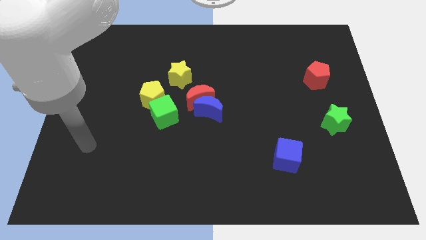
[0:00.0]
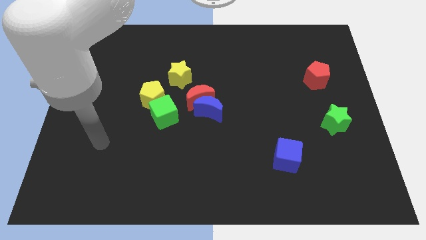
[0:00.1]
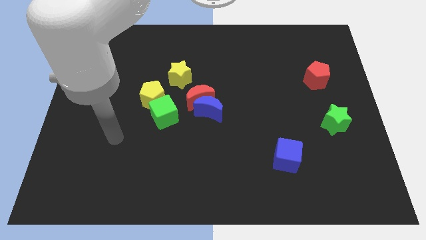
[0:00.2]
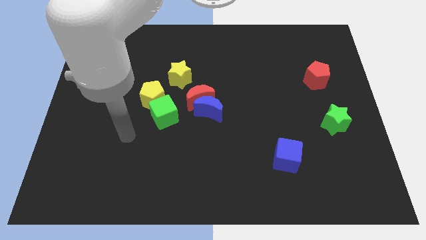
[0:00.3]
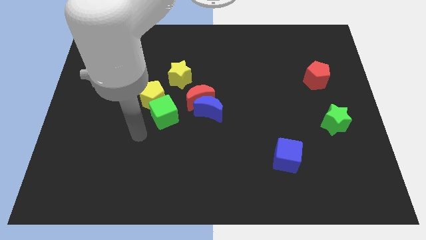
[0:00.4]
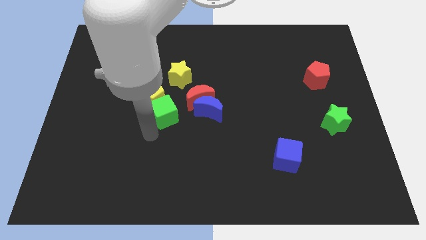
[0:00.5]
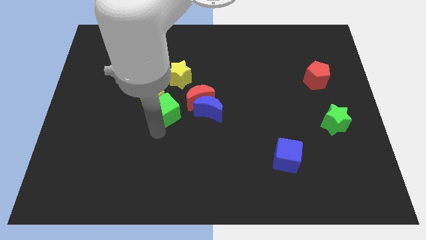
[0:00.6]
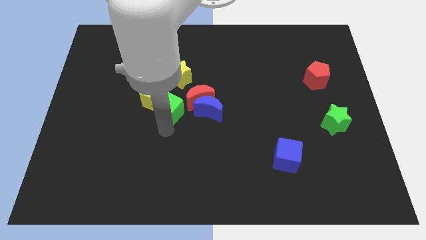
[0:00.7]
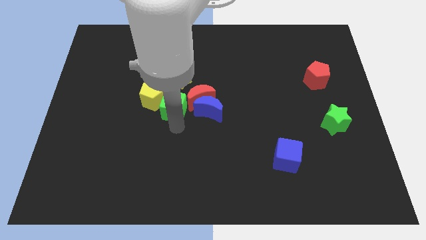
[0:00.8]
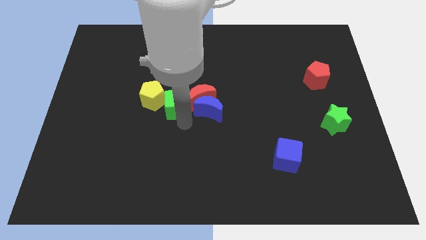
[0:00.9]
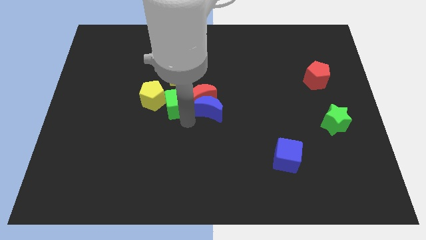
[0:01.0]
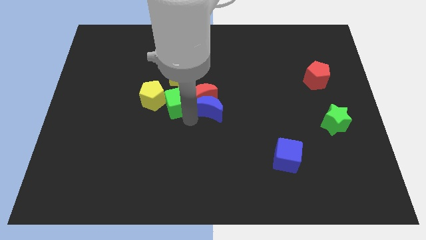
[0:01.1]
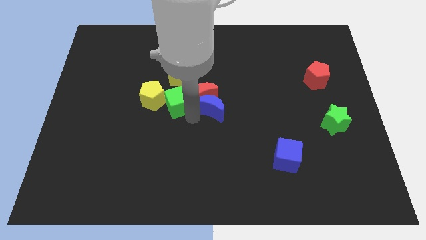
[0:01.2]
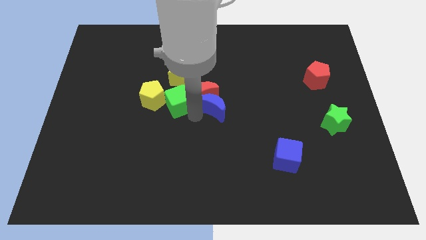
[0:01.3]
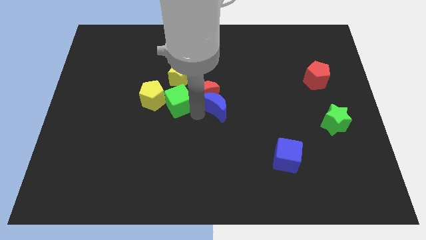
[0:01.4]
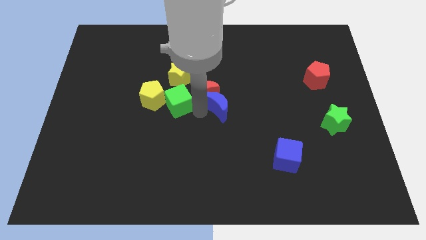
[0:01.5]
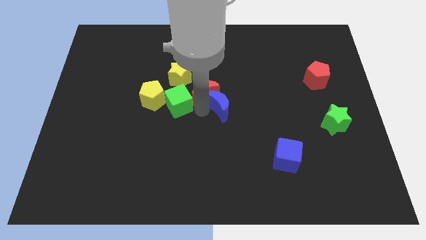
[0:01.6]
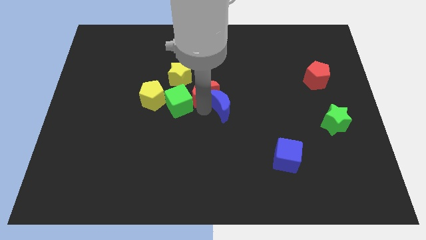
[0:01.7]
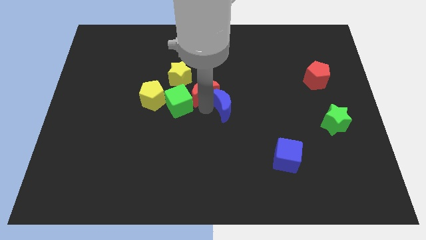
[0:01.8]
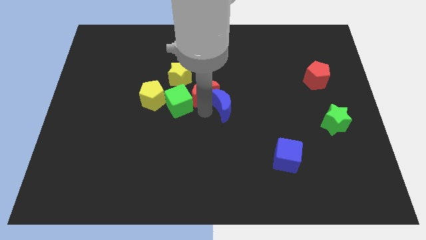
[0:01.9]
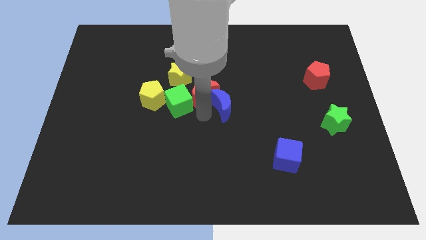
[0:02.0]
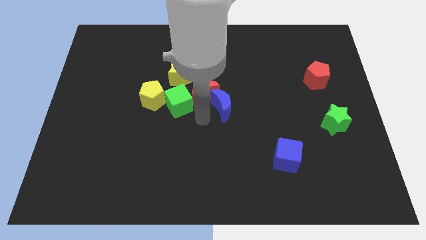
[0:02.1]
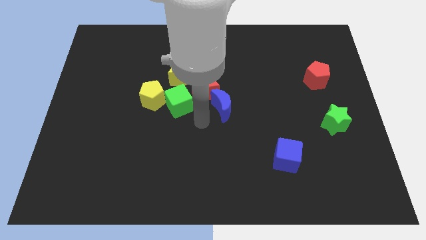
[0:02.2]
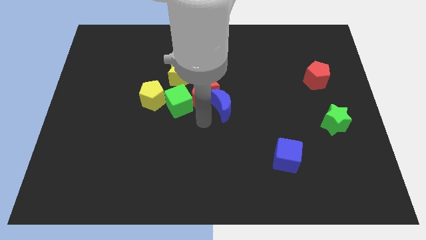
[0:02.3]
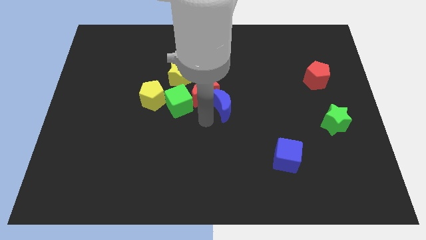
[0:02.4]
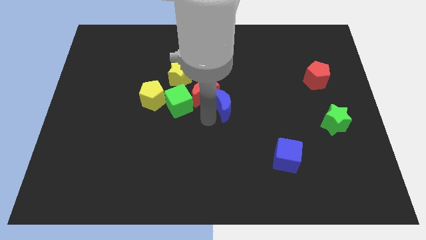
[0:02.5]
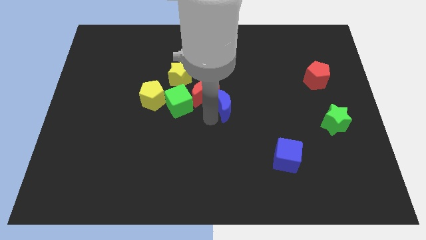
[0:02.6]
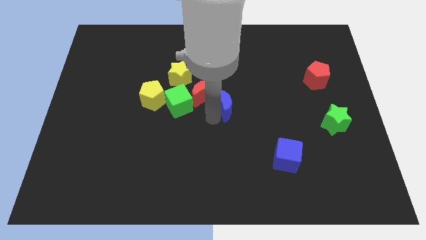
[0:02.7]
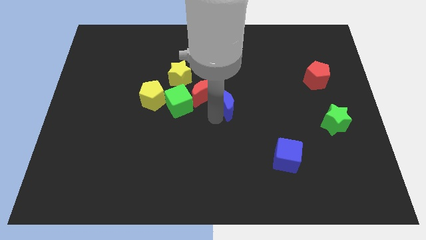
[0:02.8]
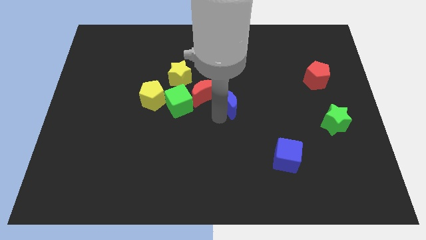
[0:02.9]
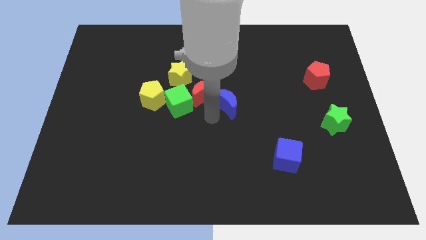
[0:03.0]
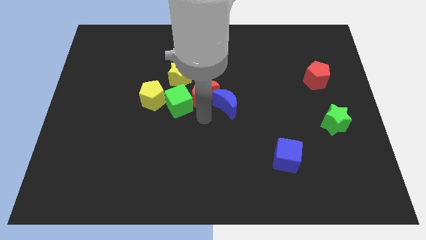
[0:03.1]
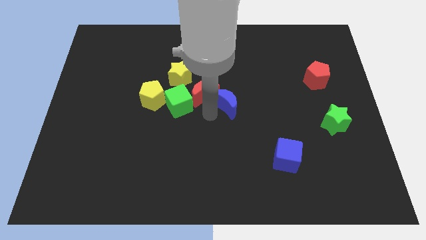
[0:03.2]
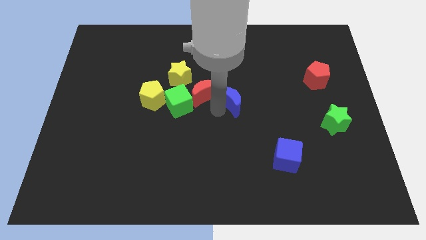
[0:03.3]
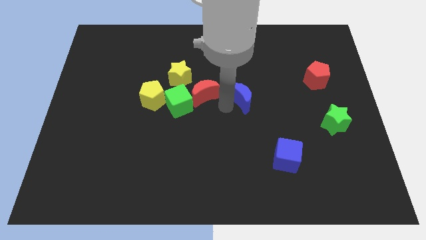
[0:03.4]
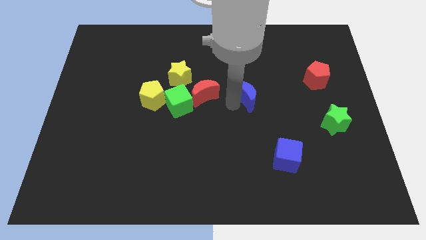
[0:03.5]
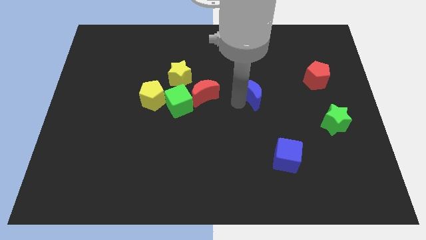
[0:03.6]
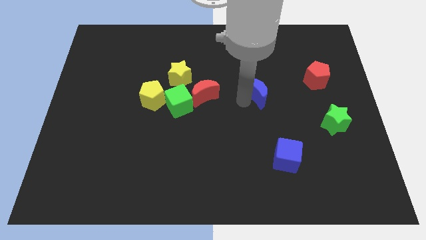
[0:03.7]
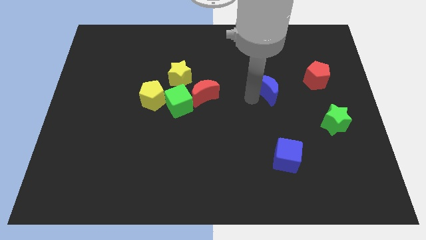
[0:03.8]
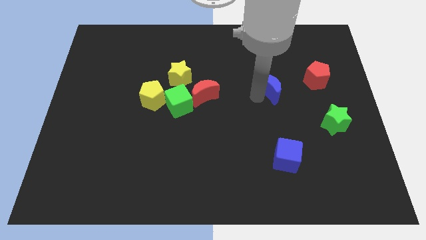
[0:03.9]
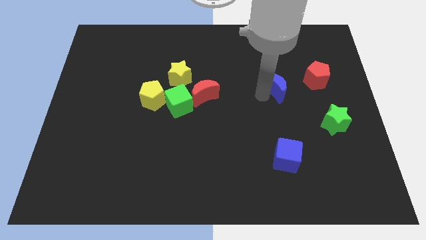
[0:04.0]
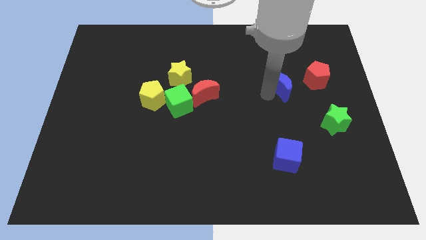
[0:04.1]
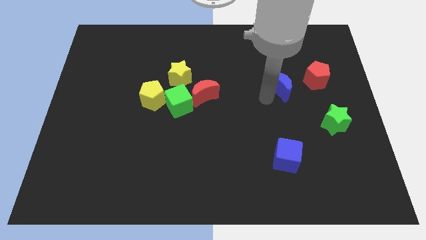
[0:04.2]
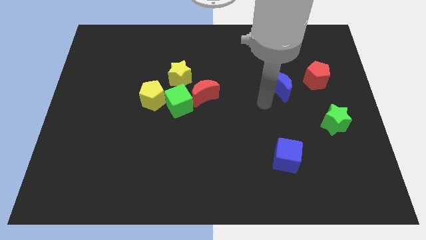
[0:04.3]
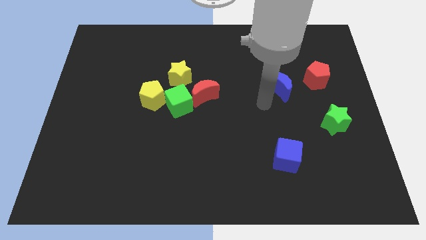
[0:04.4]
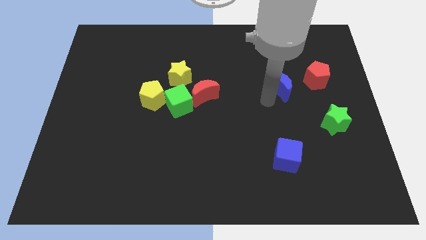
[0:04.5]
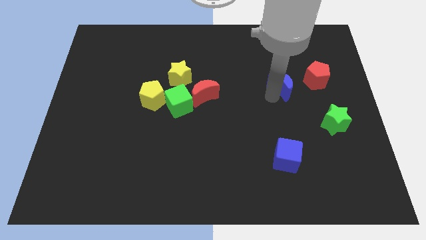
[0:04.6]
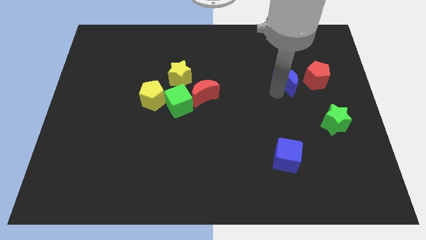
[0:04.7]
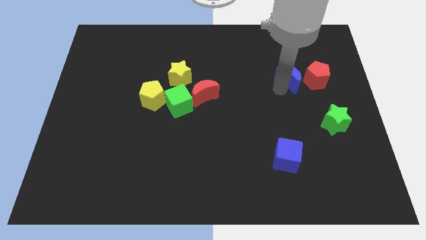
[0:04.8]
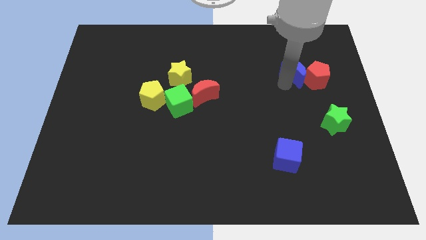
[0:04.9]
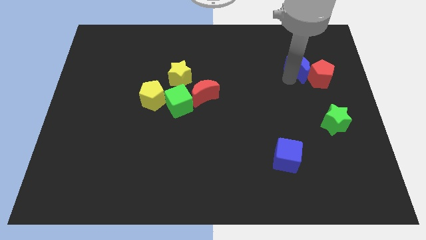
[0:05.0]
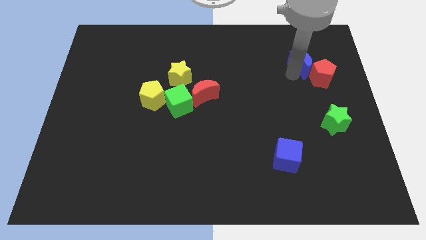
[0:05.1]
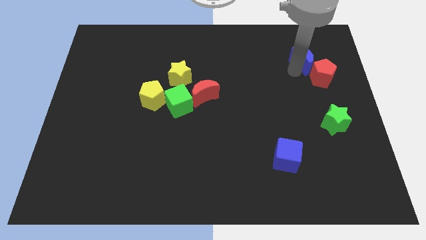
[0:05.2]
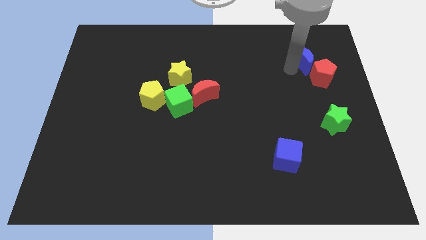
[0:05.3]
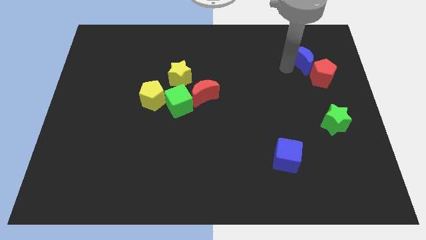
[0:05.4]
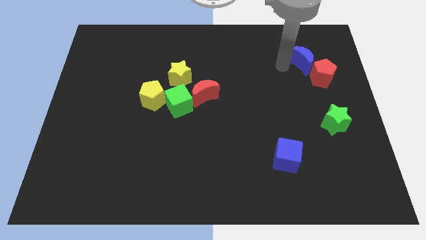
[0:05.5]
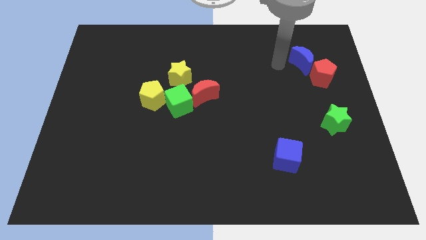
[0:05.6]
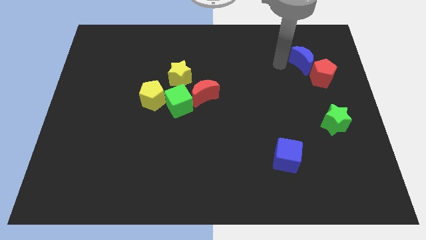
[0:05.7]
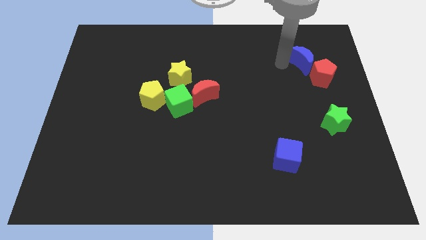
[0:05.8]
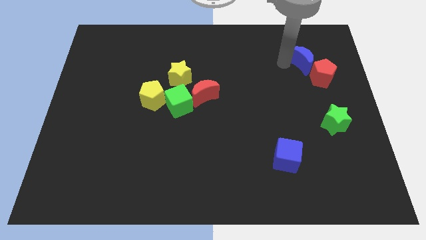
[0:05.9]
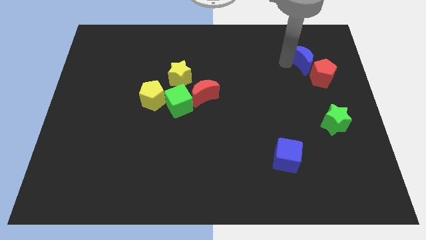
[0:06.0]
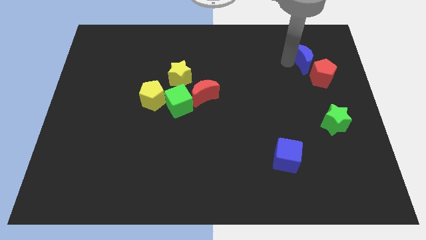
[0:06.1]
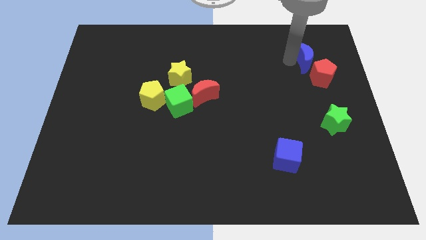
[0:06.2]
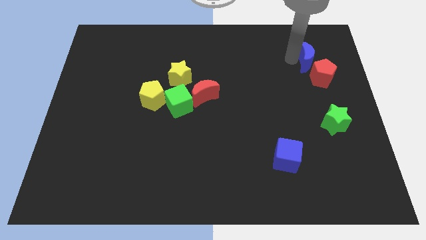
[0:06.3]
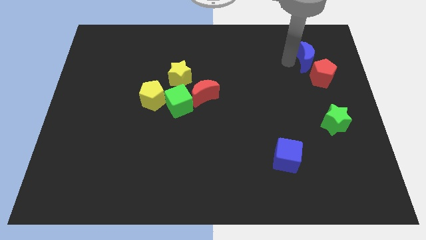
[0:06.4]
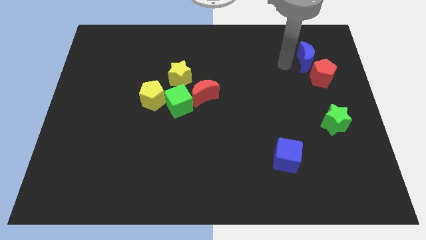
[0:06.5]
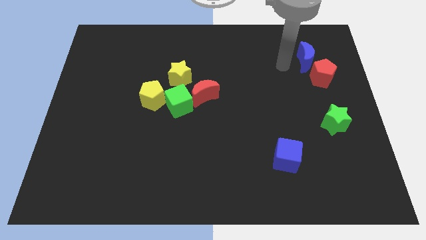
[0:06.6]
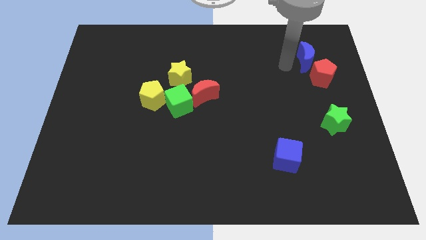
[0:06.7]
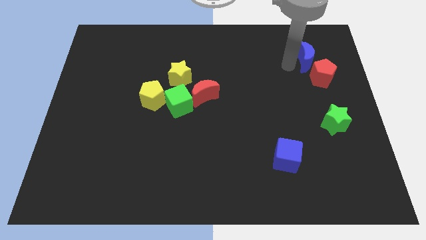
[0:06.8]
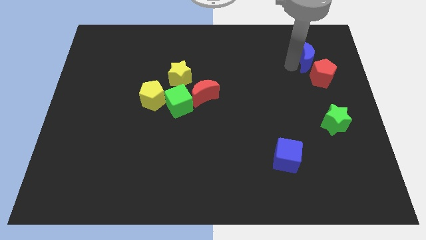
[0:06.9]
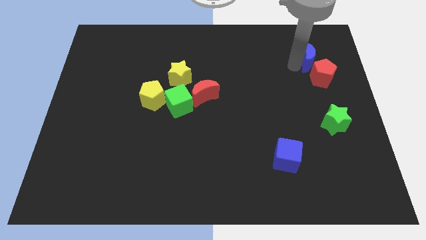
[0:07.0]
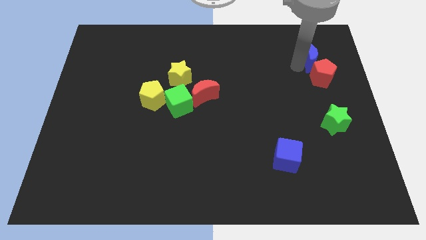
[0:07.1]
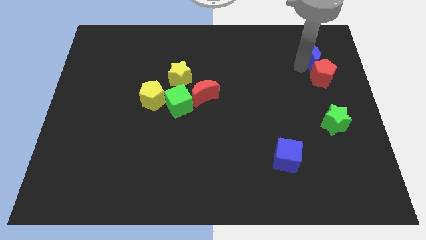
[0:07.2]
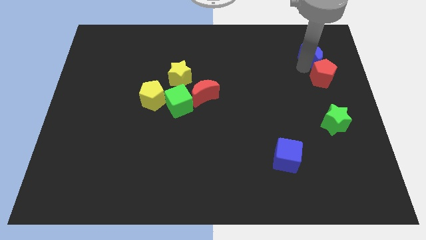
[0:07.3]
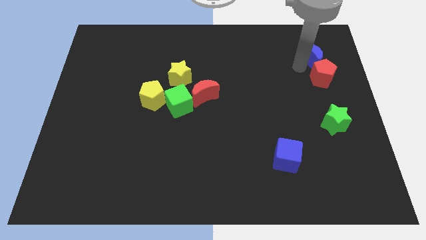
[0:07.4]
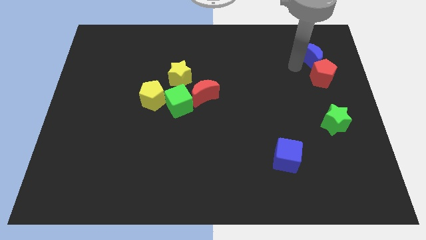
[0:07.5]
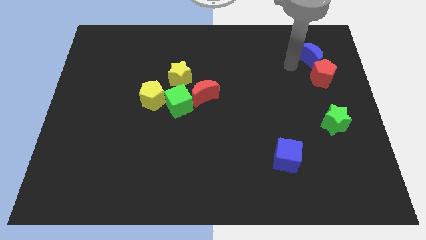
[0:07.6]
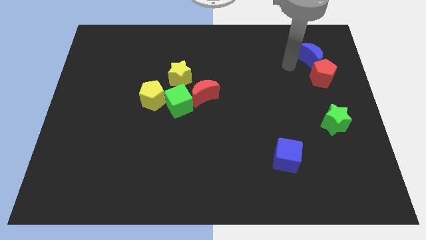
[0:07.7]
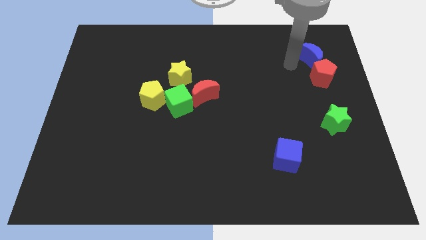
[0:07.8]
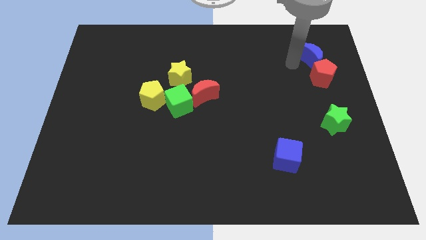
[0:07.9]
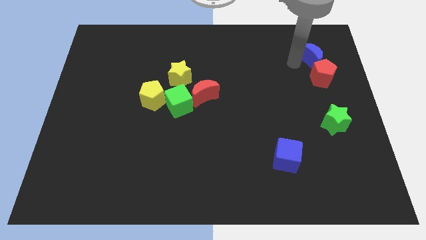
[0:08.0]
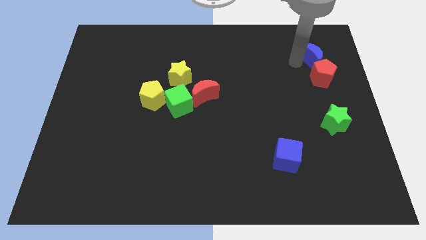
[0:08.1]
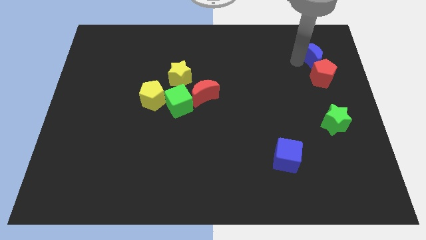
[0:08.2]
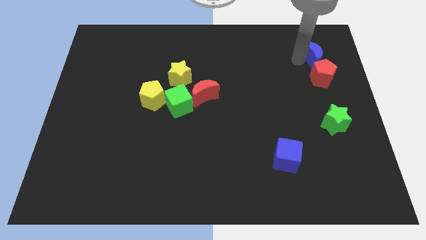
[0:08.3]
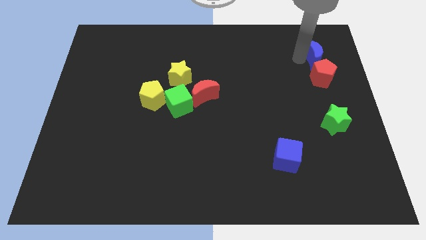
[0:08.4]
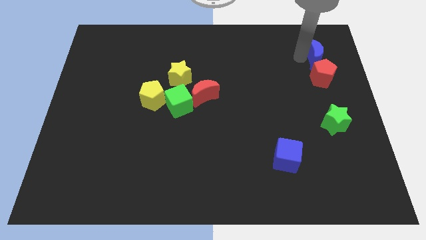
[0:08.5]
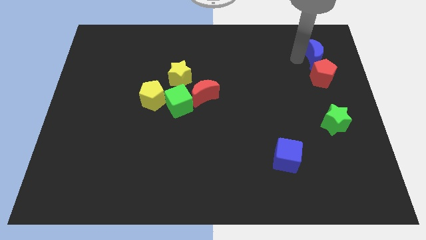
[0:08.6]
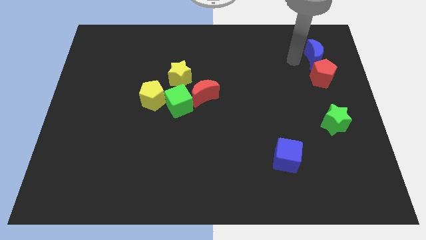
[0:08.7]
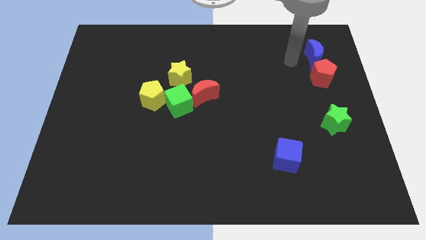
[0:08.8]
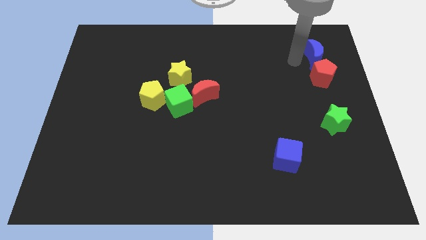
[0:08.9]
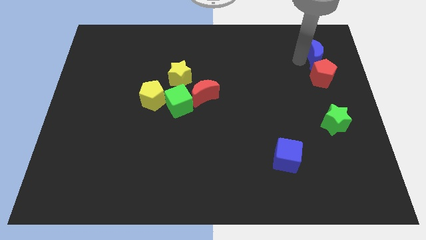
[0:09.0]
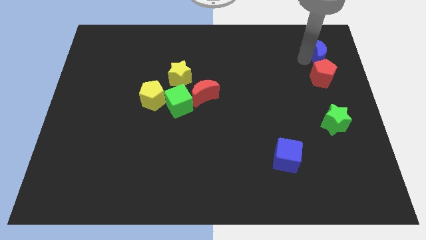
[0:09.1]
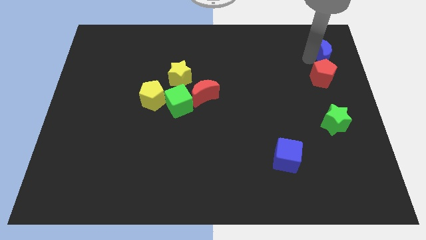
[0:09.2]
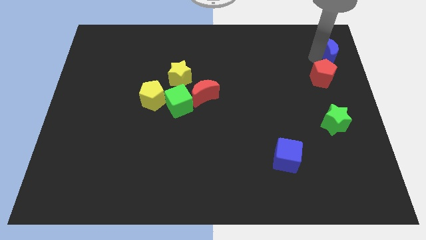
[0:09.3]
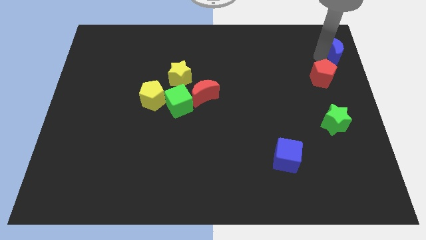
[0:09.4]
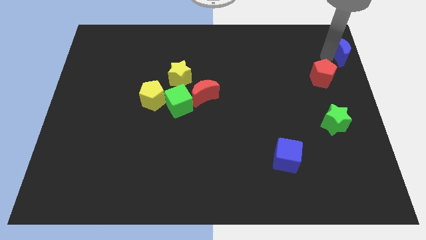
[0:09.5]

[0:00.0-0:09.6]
slide the blue moon to the top right of the board
